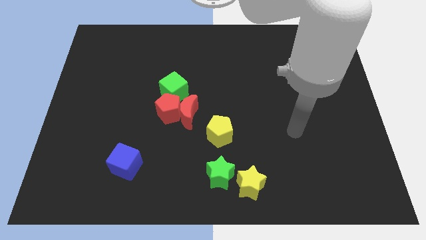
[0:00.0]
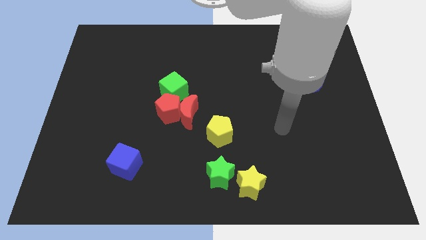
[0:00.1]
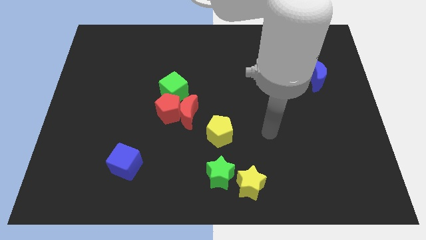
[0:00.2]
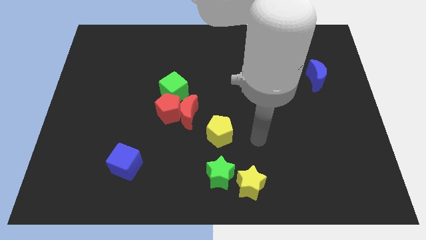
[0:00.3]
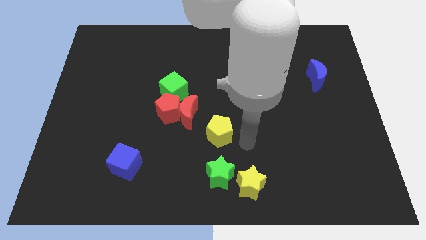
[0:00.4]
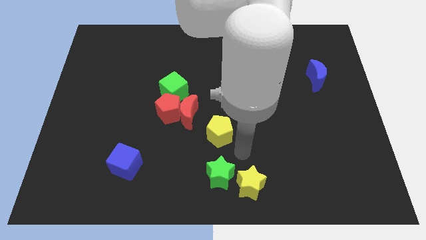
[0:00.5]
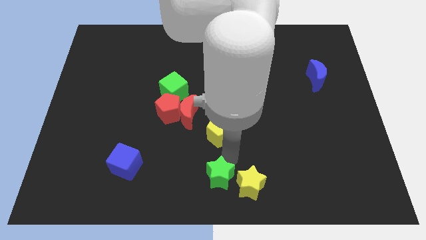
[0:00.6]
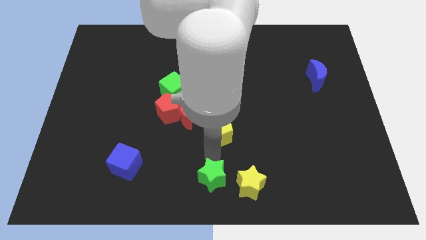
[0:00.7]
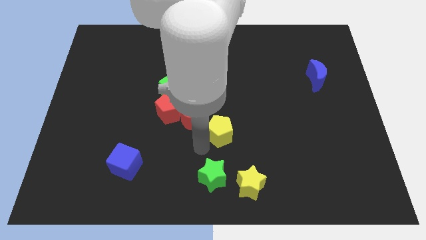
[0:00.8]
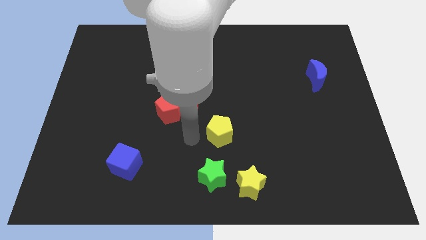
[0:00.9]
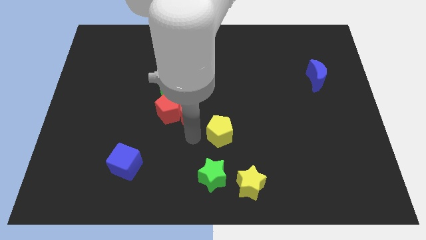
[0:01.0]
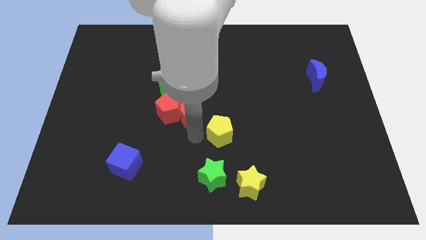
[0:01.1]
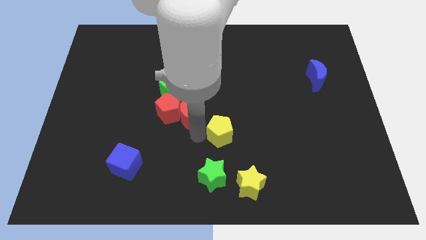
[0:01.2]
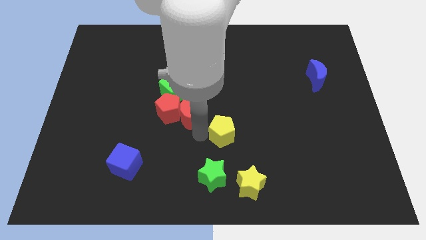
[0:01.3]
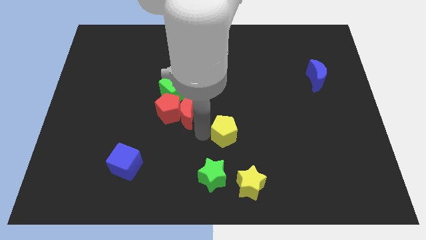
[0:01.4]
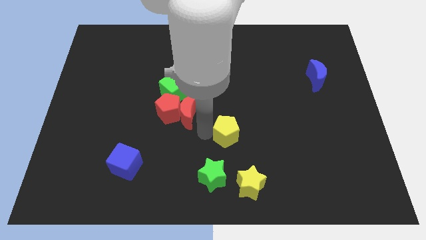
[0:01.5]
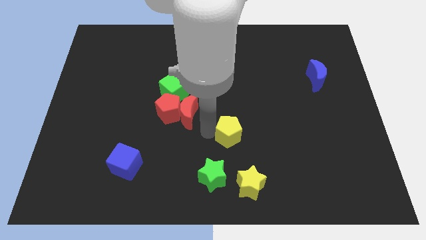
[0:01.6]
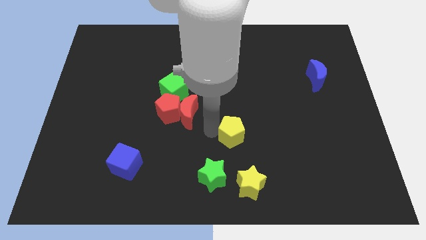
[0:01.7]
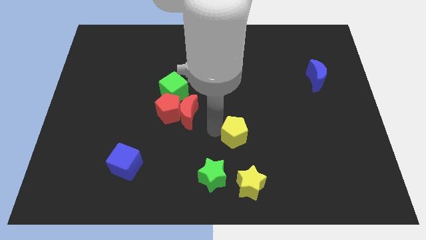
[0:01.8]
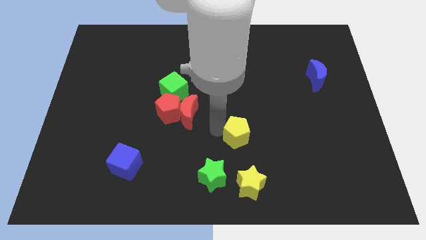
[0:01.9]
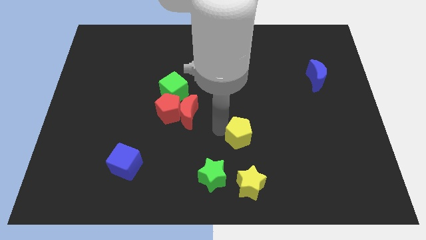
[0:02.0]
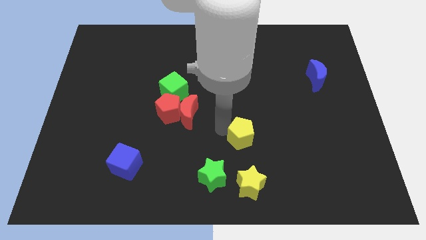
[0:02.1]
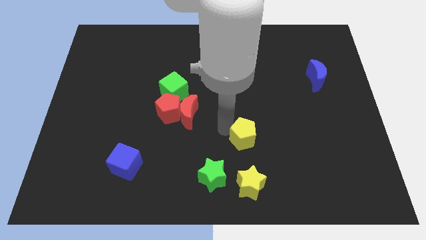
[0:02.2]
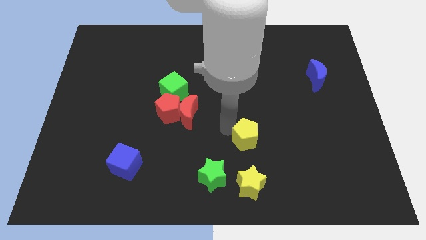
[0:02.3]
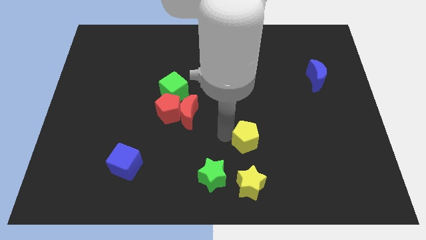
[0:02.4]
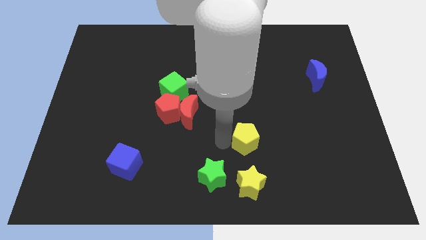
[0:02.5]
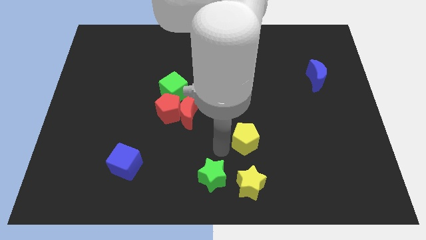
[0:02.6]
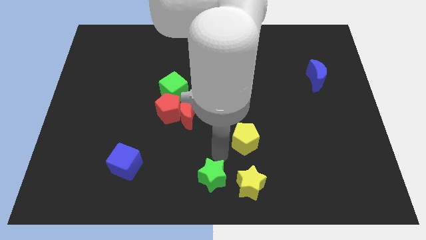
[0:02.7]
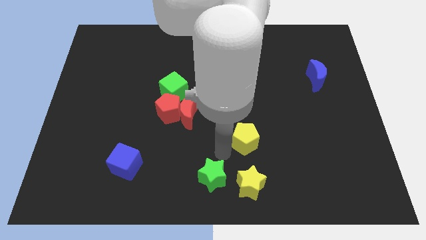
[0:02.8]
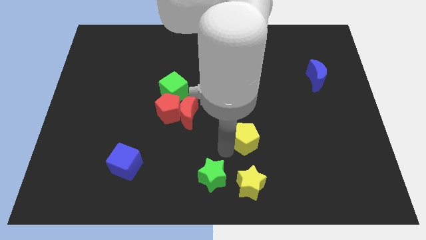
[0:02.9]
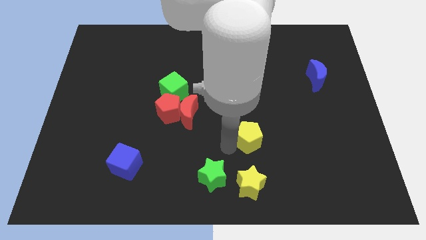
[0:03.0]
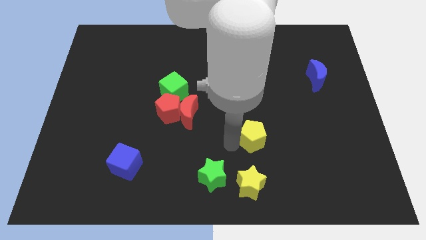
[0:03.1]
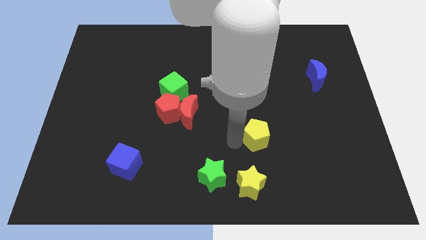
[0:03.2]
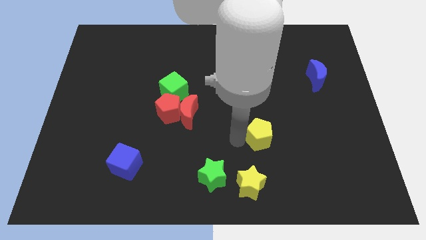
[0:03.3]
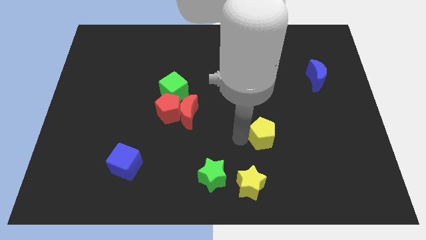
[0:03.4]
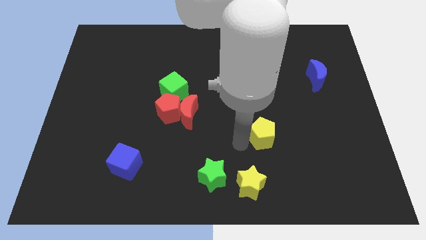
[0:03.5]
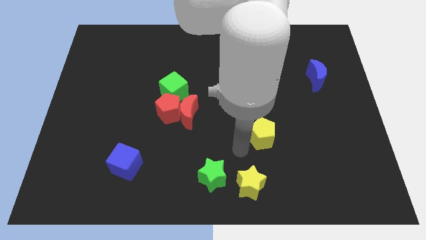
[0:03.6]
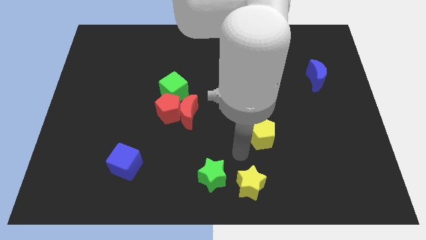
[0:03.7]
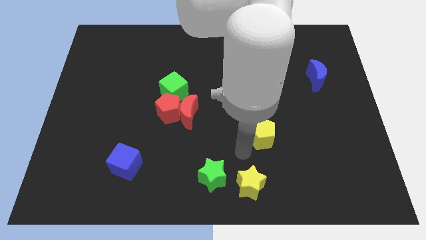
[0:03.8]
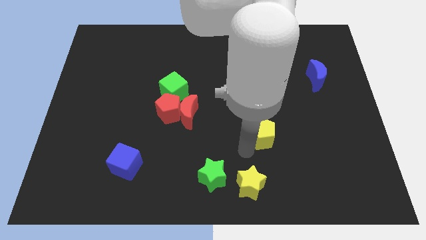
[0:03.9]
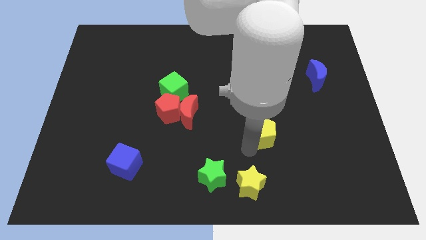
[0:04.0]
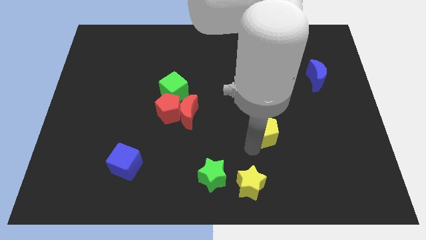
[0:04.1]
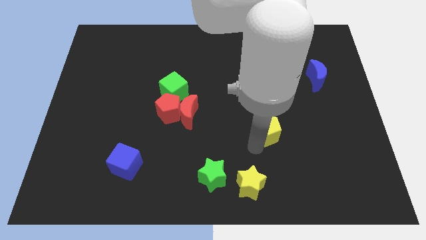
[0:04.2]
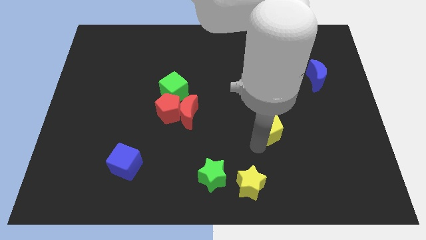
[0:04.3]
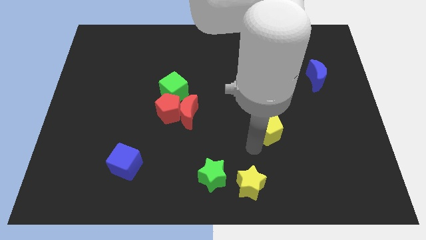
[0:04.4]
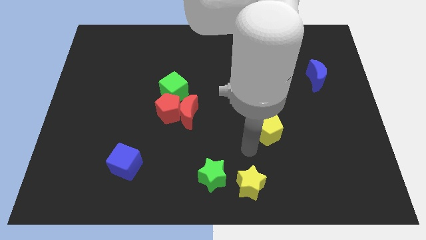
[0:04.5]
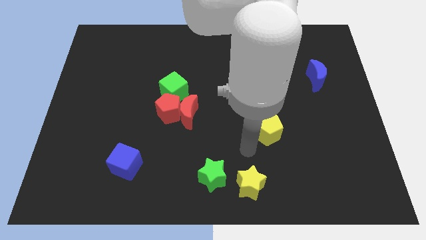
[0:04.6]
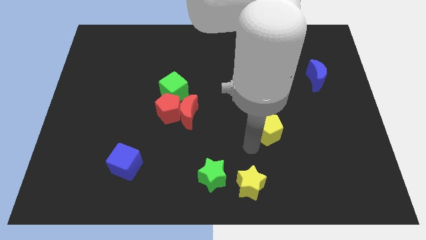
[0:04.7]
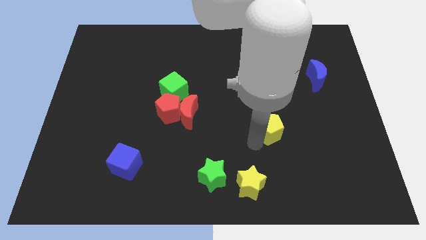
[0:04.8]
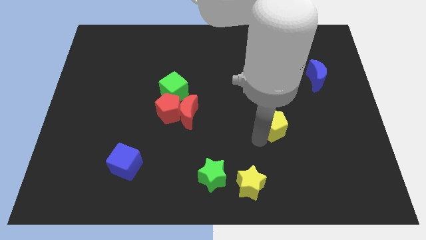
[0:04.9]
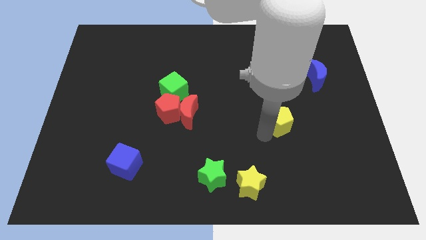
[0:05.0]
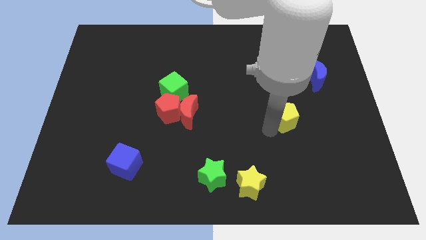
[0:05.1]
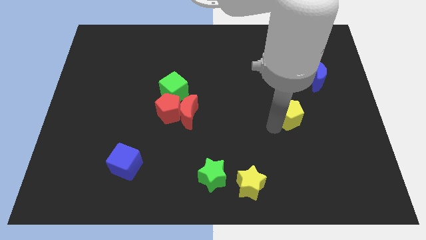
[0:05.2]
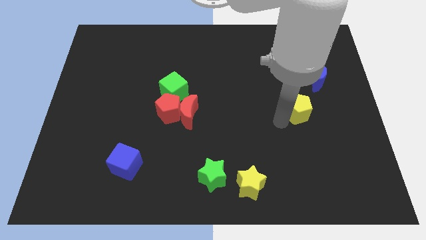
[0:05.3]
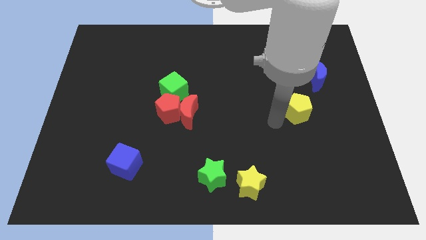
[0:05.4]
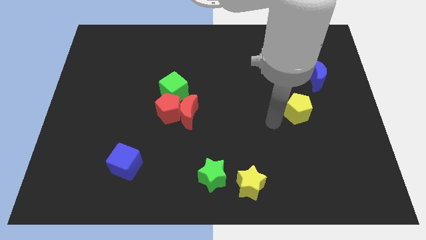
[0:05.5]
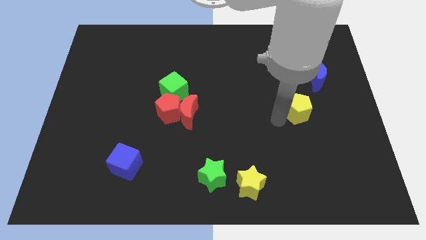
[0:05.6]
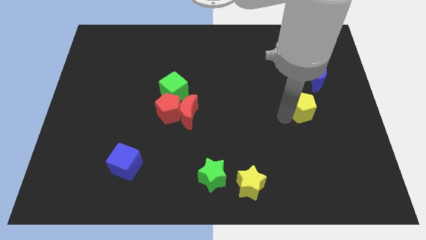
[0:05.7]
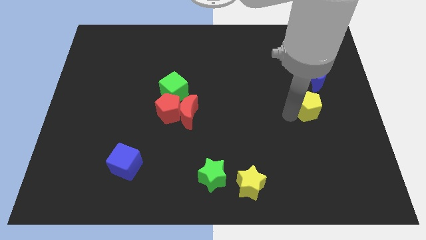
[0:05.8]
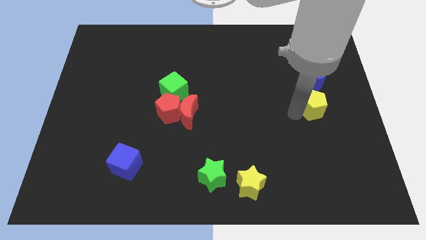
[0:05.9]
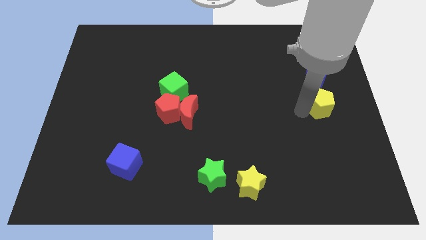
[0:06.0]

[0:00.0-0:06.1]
move the yellow pentagon to the right side

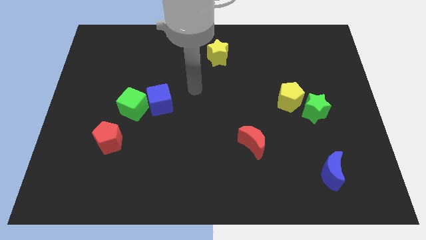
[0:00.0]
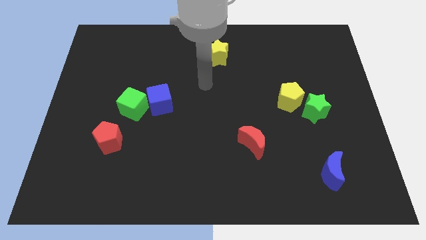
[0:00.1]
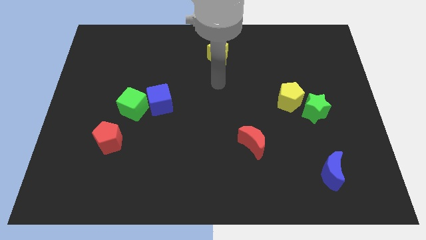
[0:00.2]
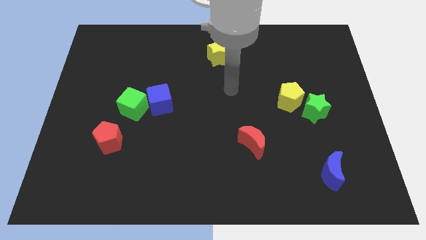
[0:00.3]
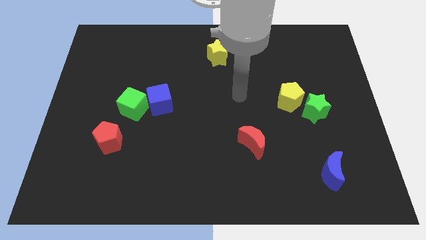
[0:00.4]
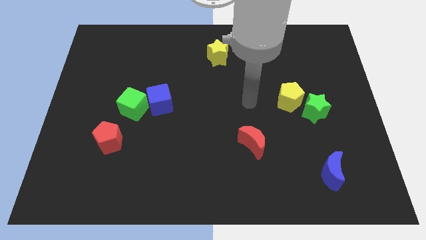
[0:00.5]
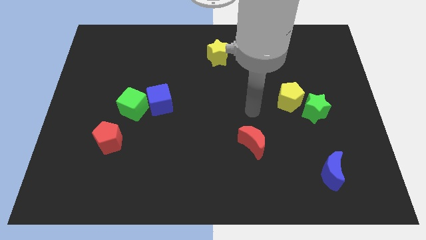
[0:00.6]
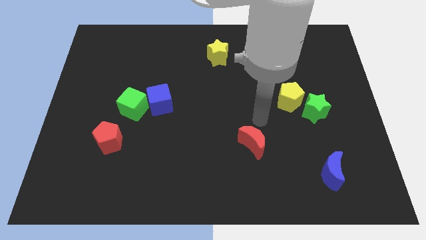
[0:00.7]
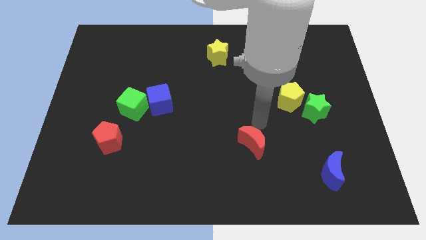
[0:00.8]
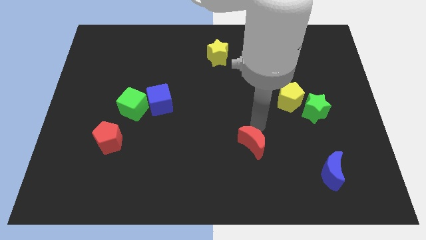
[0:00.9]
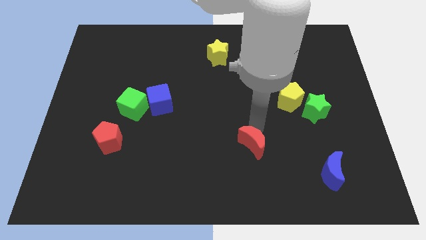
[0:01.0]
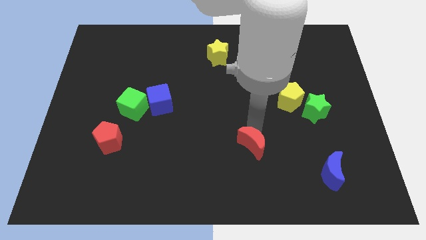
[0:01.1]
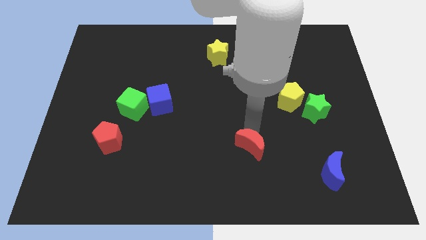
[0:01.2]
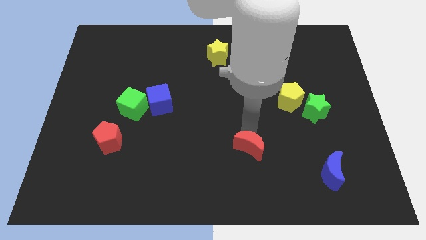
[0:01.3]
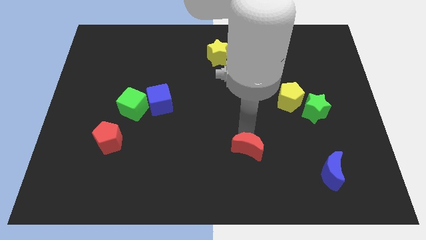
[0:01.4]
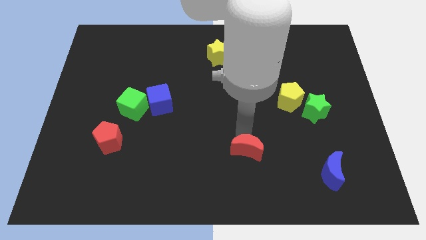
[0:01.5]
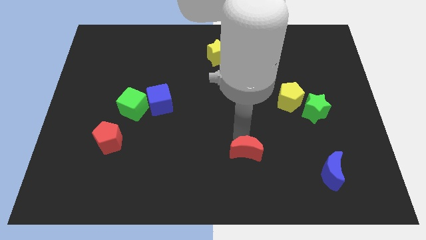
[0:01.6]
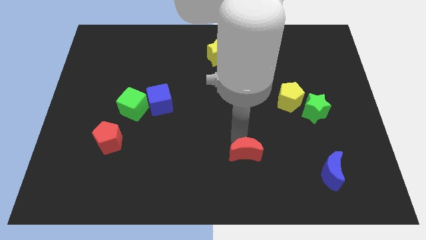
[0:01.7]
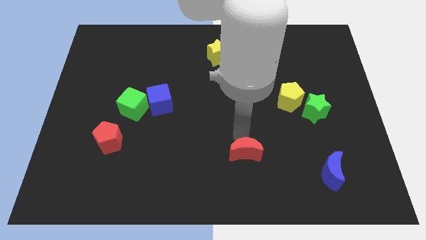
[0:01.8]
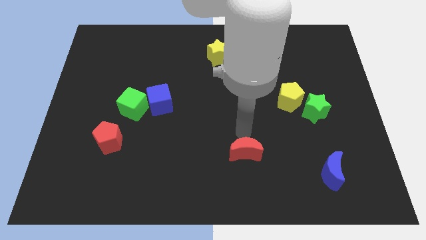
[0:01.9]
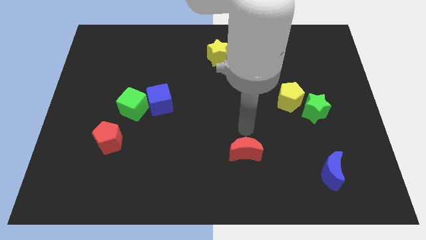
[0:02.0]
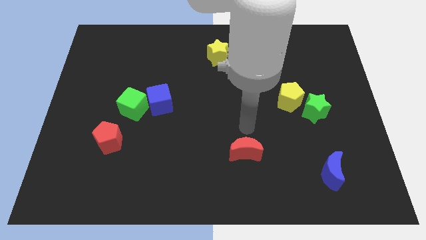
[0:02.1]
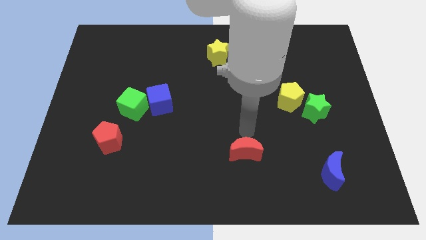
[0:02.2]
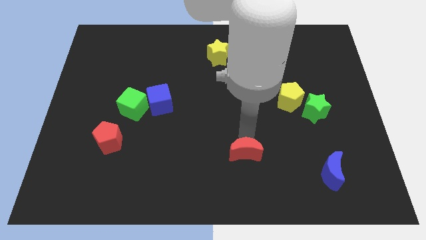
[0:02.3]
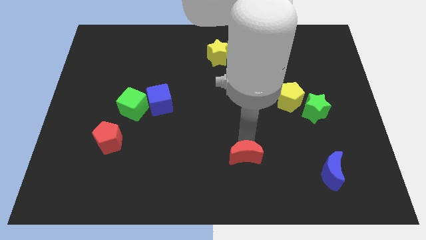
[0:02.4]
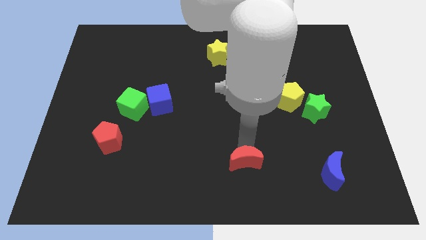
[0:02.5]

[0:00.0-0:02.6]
move the red moon to the bottom side
